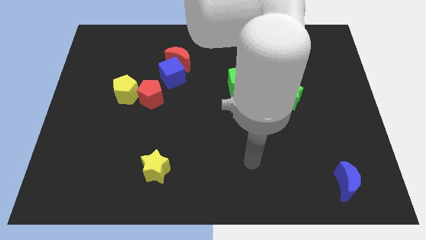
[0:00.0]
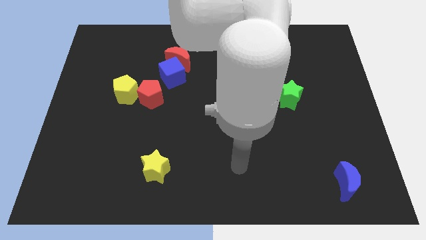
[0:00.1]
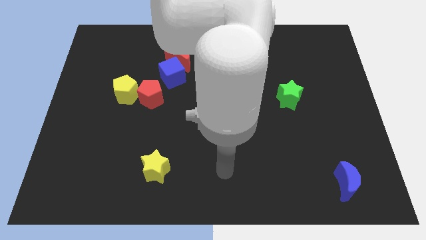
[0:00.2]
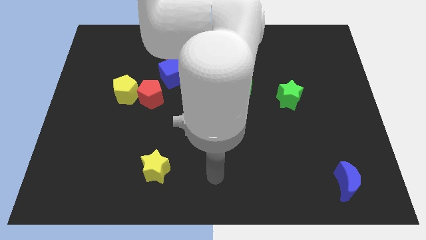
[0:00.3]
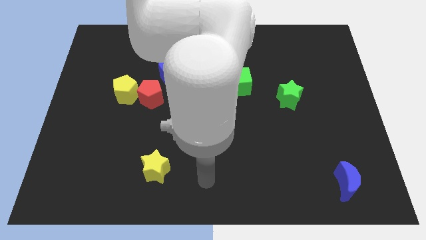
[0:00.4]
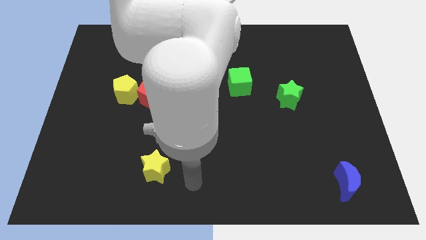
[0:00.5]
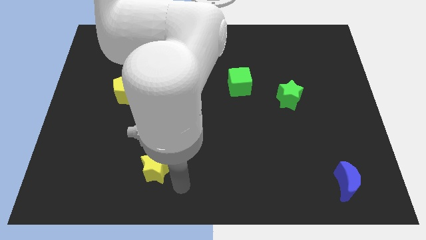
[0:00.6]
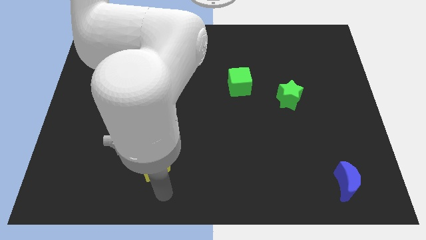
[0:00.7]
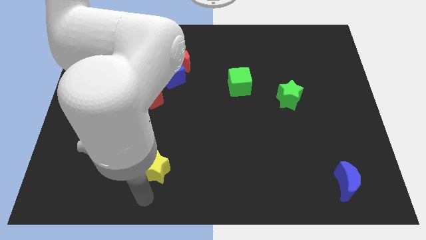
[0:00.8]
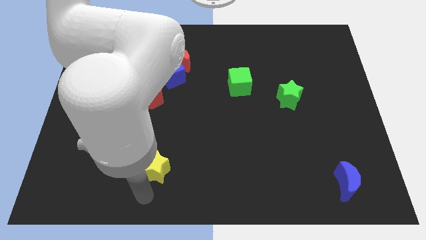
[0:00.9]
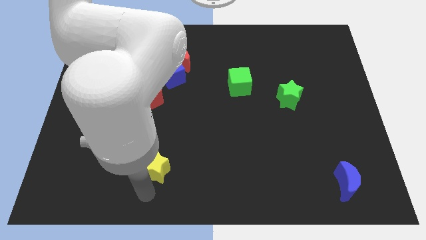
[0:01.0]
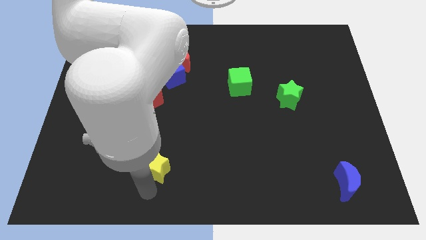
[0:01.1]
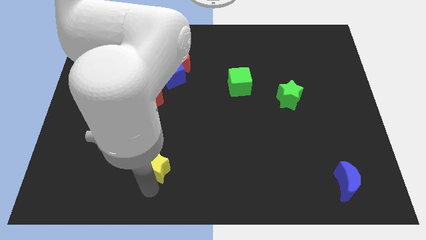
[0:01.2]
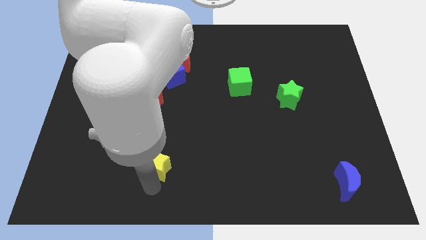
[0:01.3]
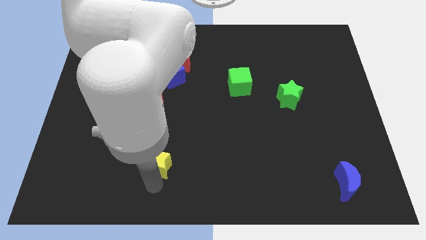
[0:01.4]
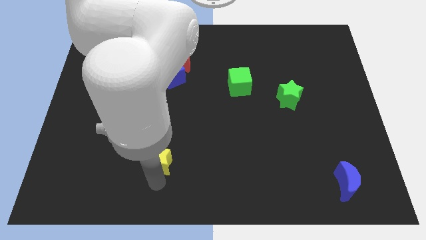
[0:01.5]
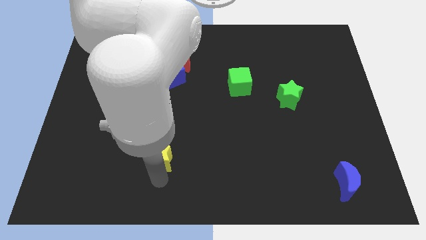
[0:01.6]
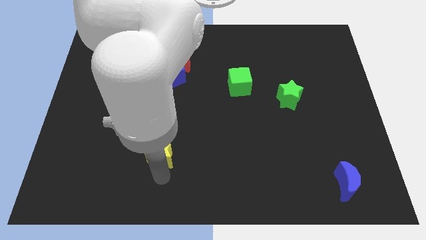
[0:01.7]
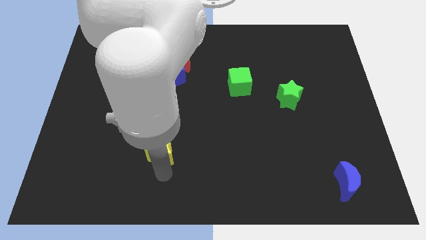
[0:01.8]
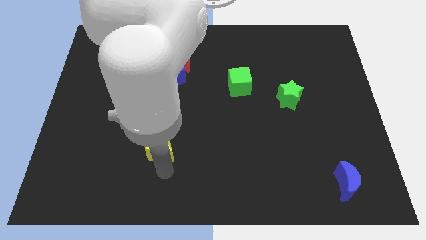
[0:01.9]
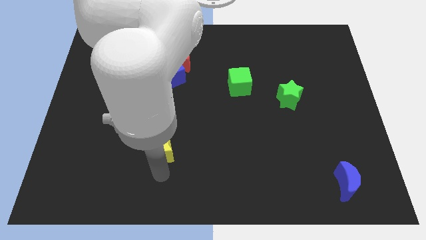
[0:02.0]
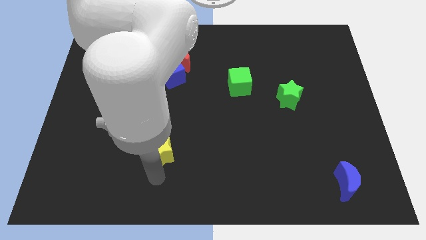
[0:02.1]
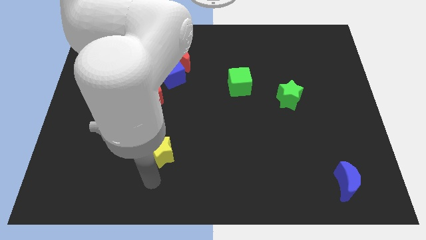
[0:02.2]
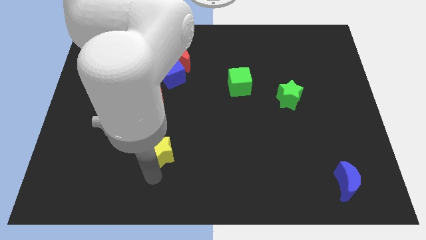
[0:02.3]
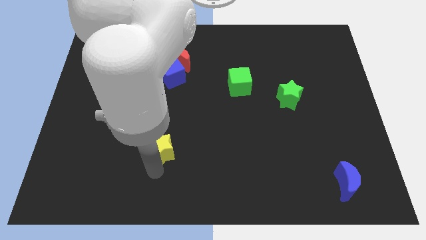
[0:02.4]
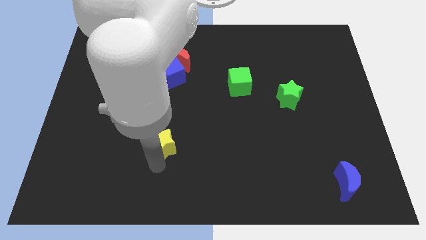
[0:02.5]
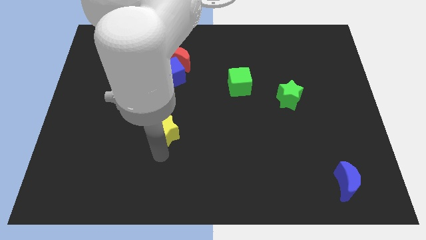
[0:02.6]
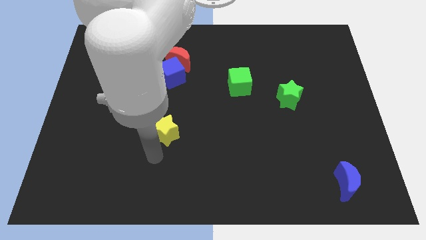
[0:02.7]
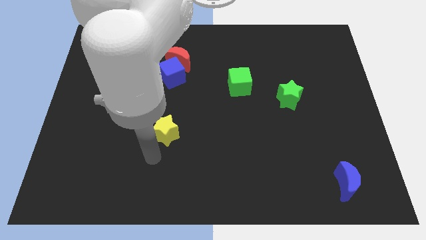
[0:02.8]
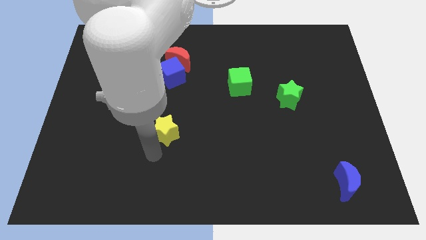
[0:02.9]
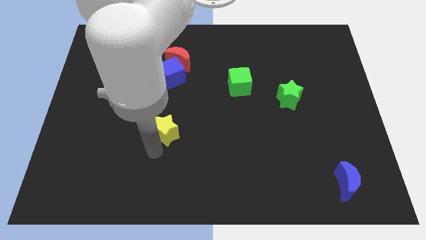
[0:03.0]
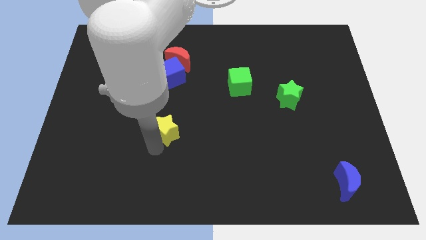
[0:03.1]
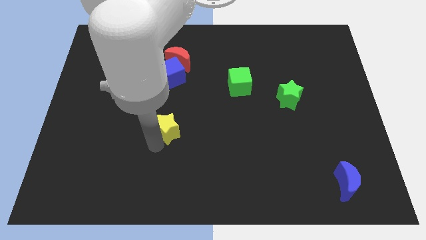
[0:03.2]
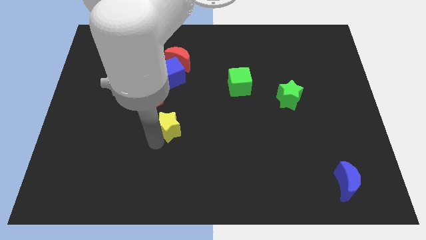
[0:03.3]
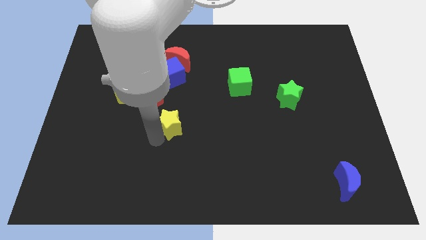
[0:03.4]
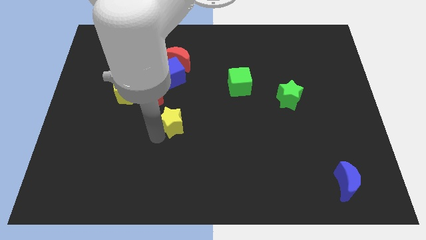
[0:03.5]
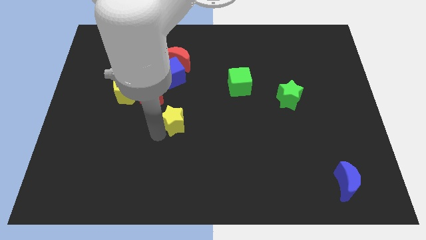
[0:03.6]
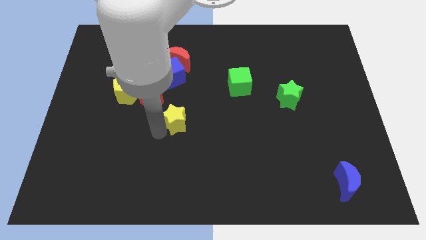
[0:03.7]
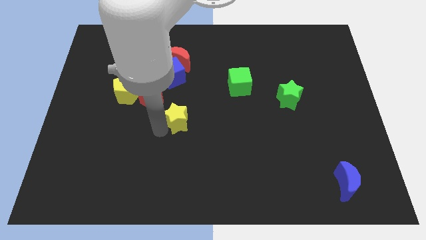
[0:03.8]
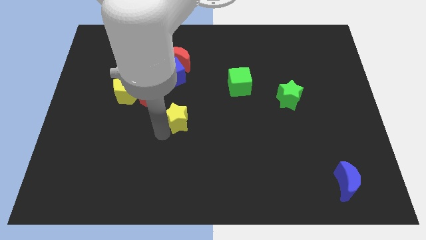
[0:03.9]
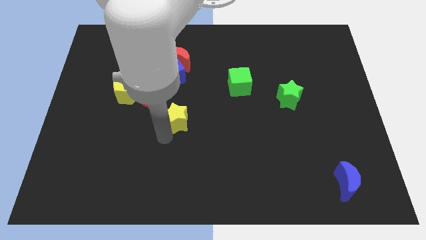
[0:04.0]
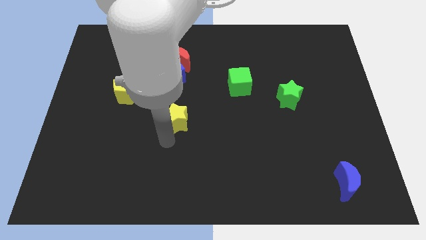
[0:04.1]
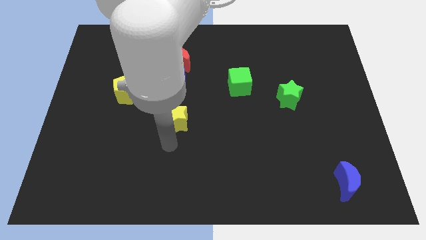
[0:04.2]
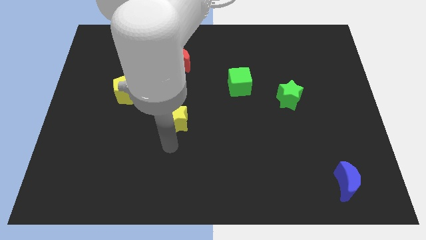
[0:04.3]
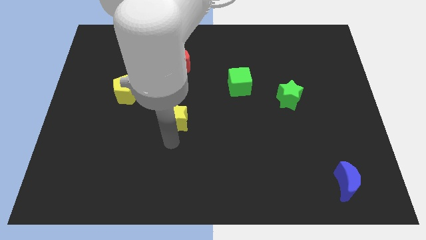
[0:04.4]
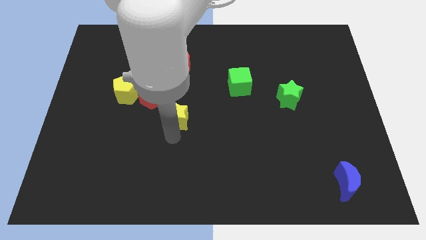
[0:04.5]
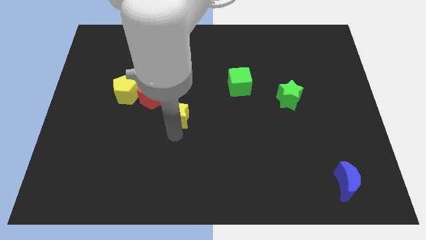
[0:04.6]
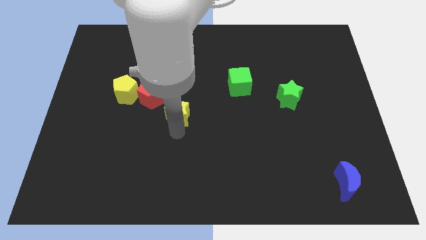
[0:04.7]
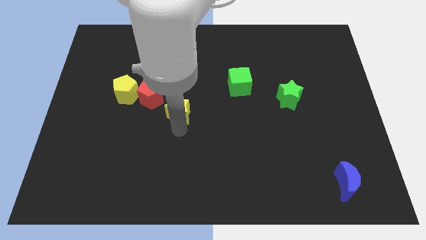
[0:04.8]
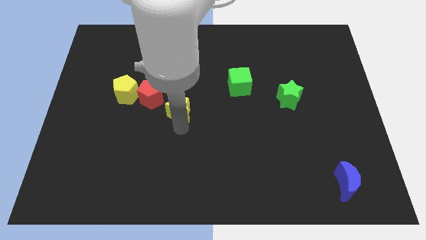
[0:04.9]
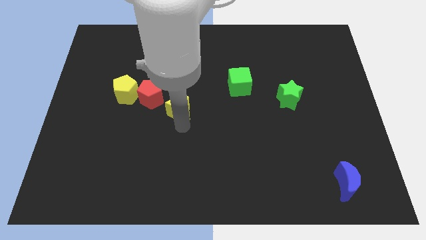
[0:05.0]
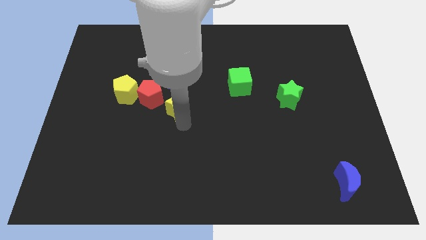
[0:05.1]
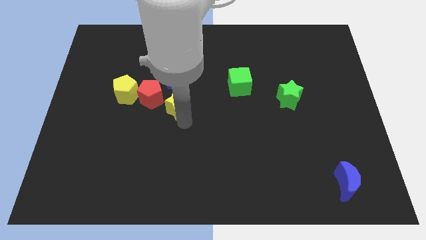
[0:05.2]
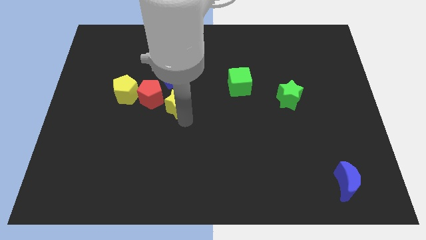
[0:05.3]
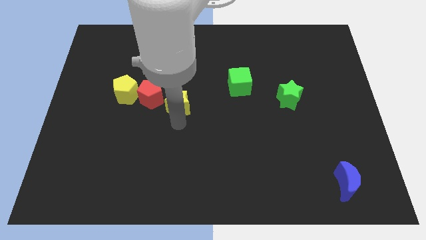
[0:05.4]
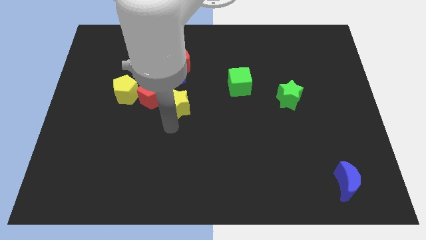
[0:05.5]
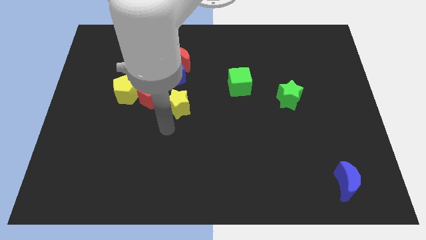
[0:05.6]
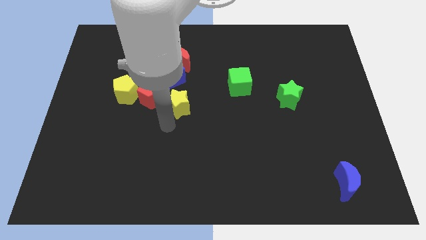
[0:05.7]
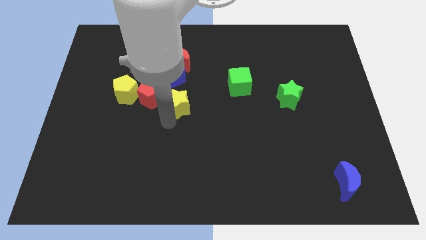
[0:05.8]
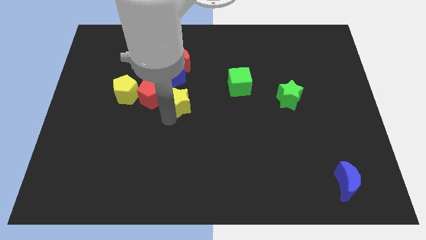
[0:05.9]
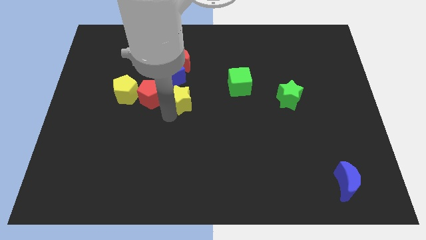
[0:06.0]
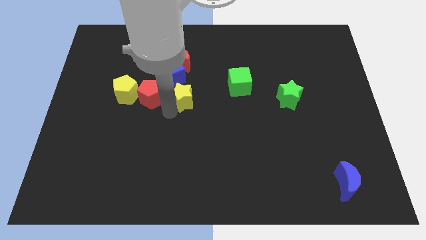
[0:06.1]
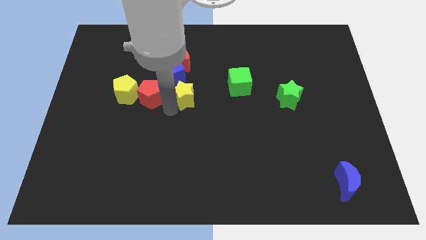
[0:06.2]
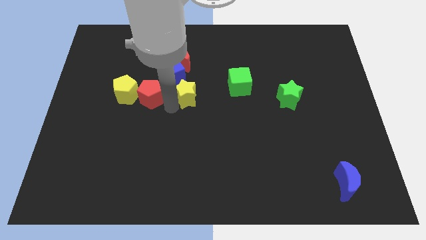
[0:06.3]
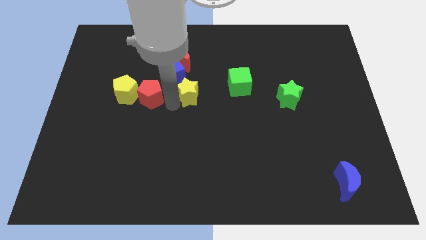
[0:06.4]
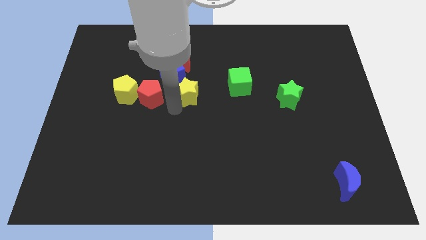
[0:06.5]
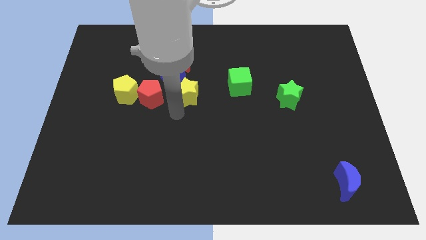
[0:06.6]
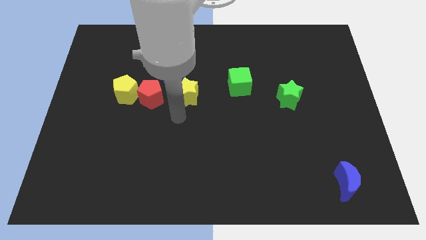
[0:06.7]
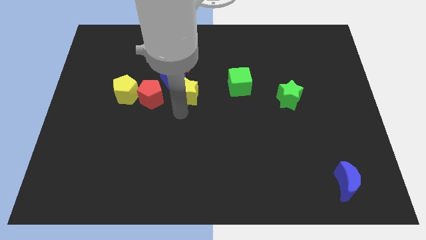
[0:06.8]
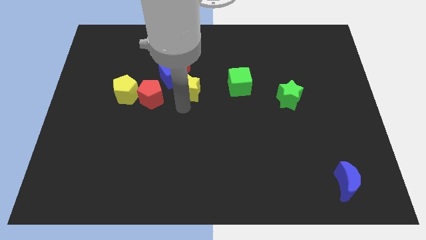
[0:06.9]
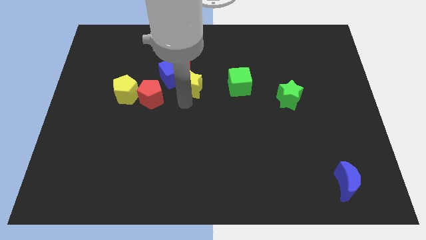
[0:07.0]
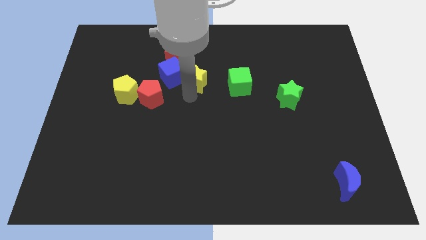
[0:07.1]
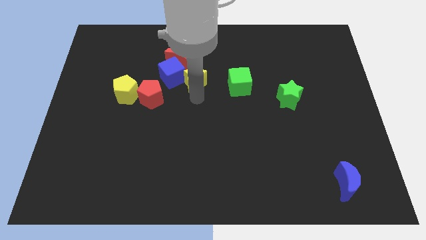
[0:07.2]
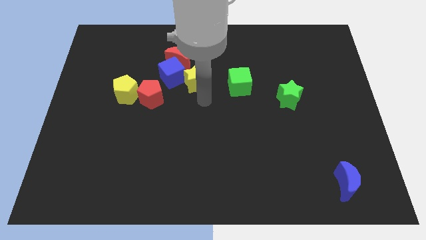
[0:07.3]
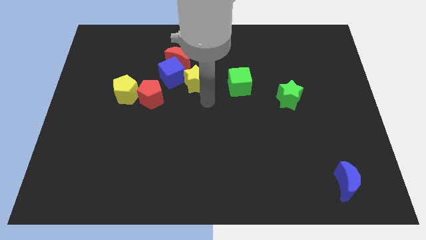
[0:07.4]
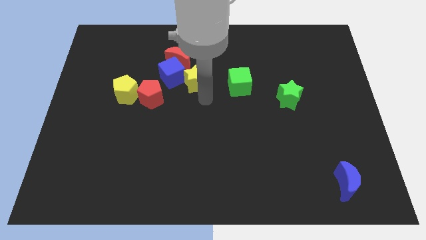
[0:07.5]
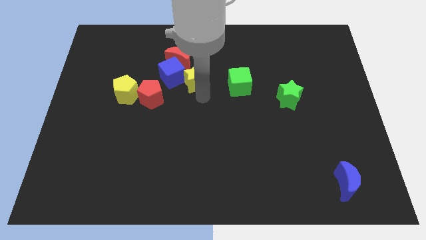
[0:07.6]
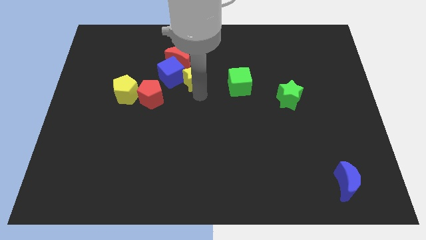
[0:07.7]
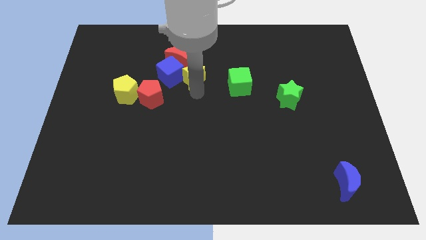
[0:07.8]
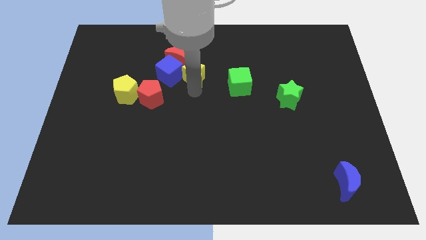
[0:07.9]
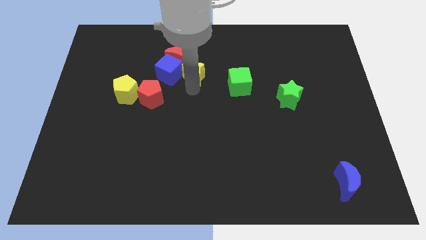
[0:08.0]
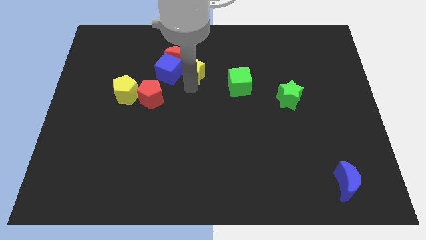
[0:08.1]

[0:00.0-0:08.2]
slide the yellow star towards the red moon
